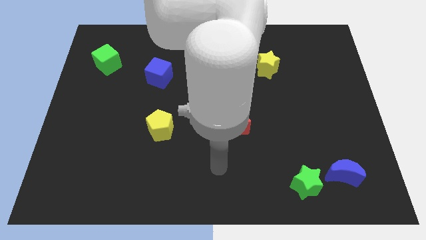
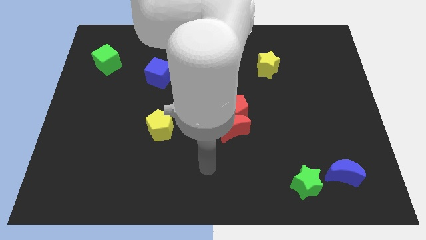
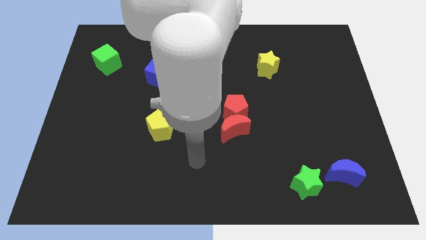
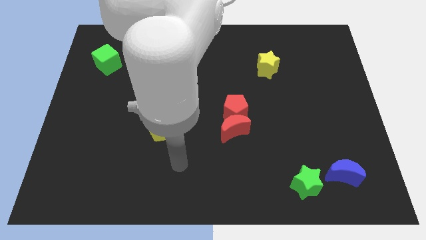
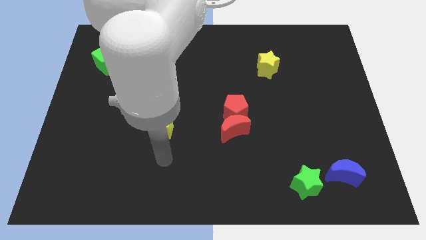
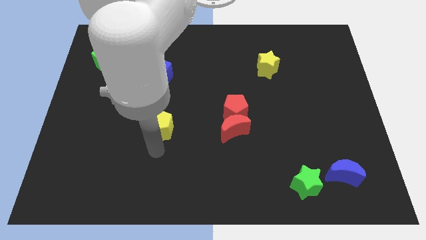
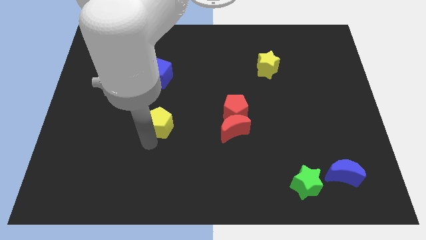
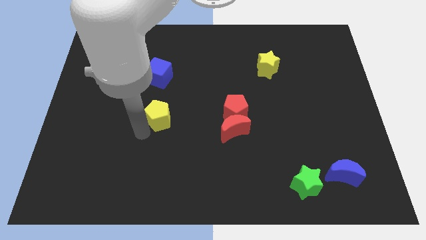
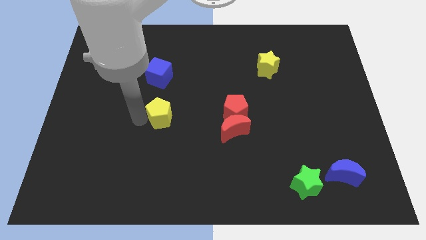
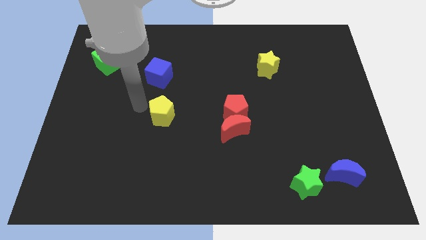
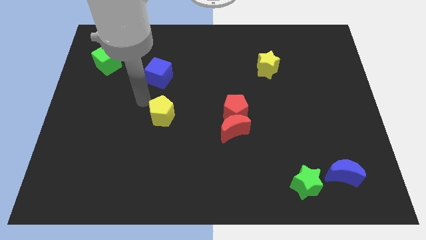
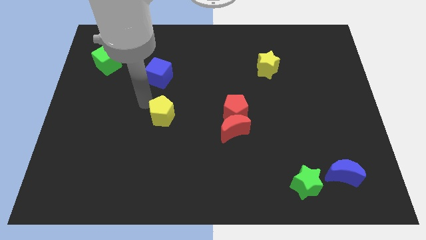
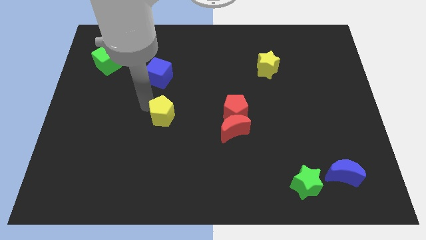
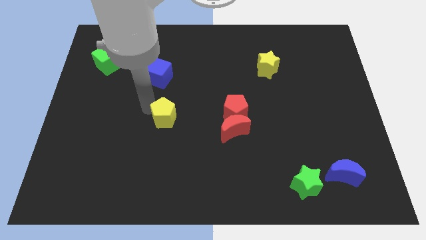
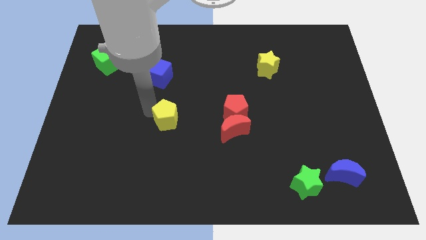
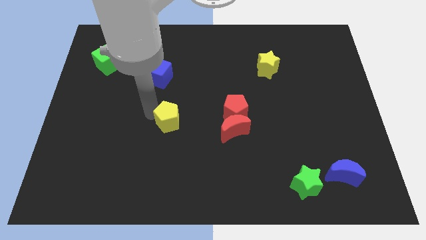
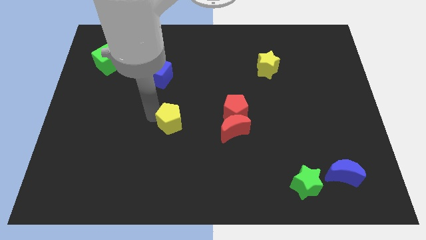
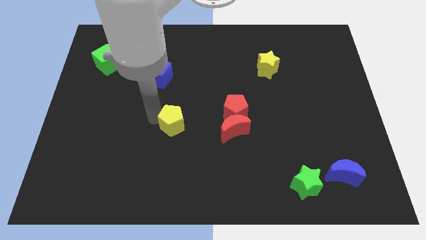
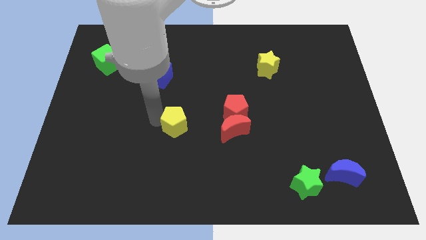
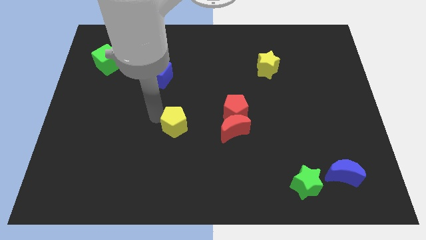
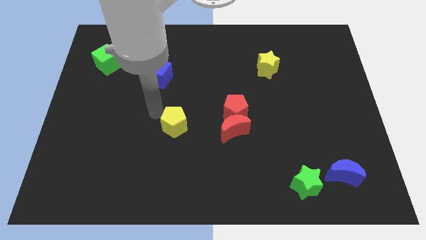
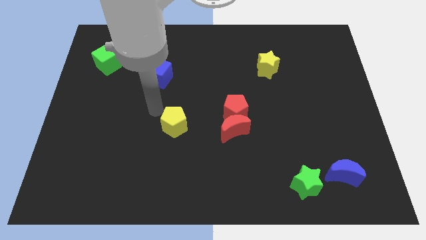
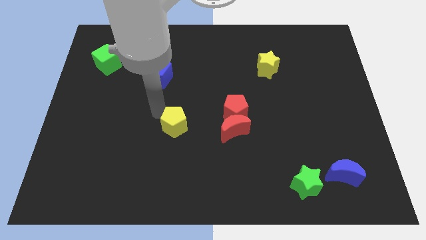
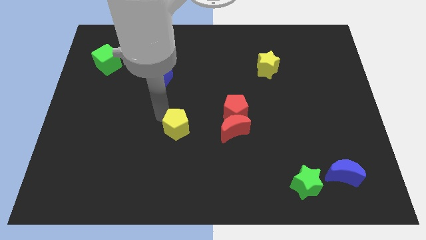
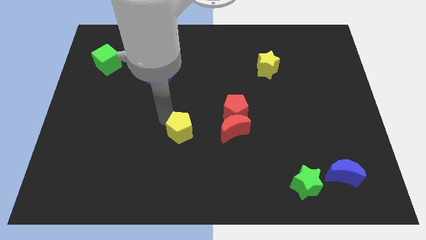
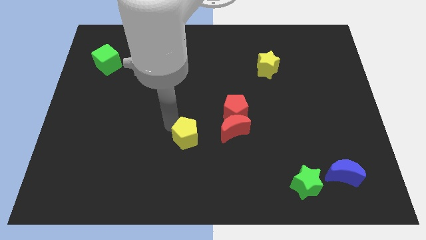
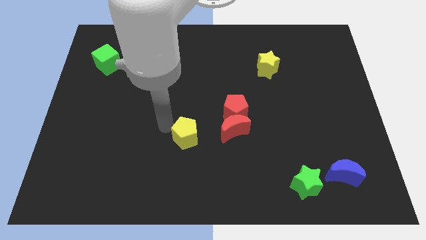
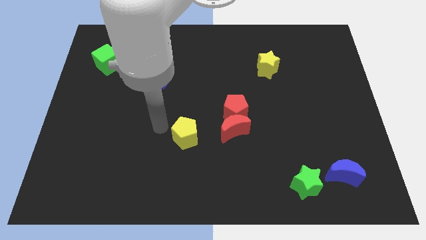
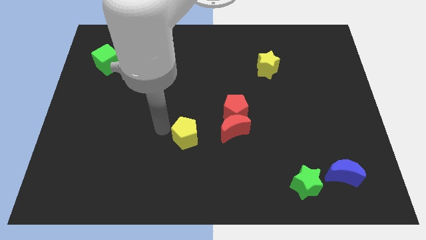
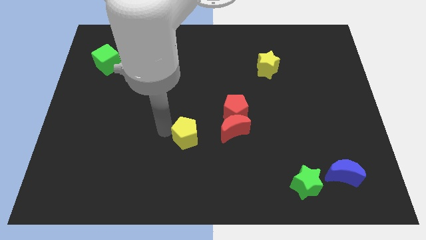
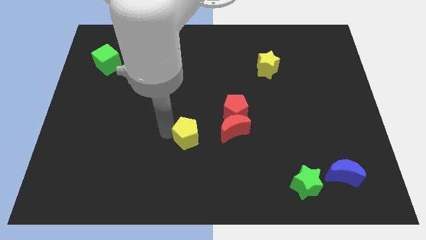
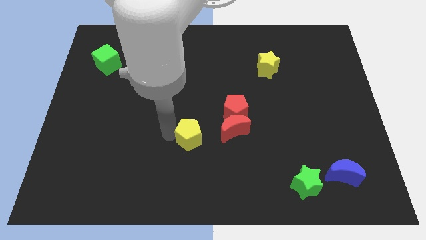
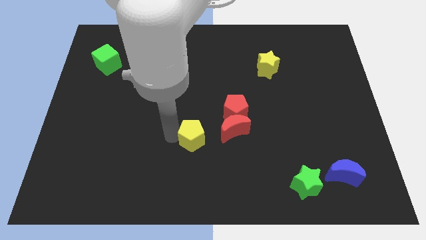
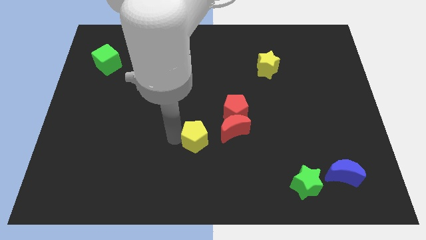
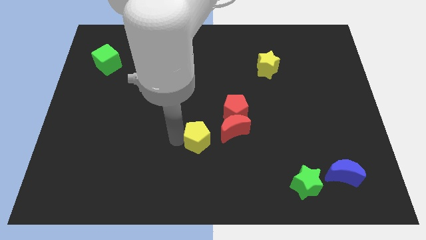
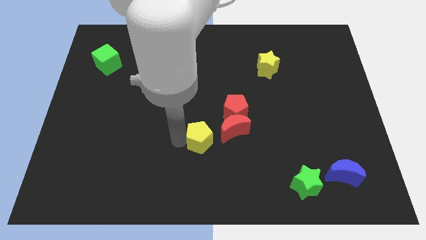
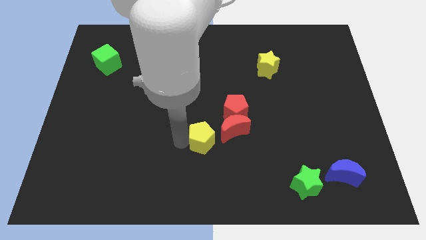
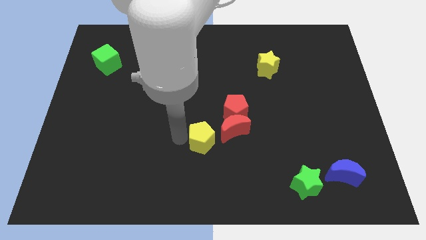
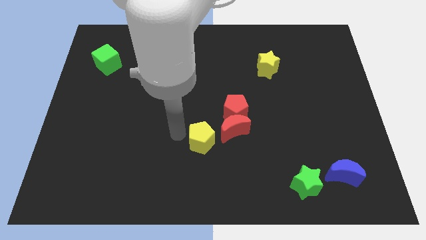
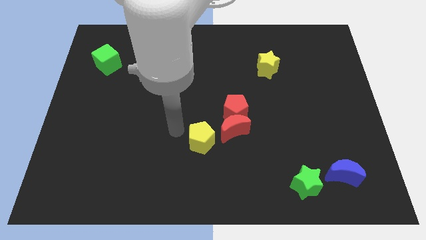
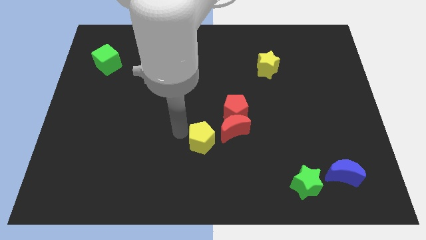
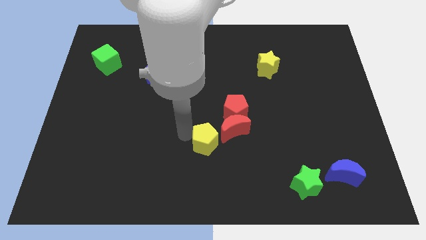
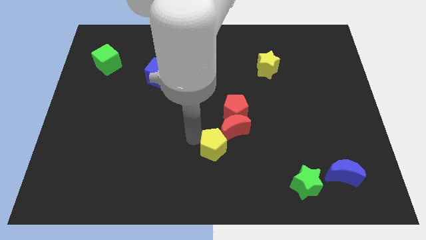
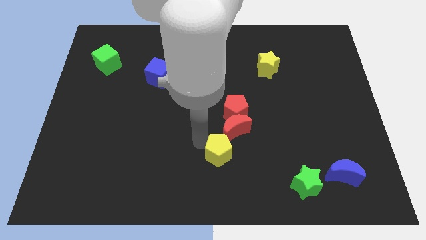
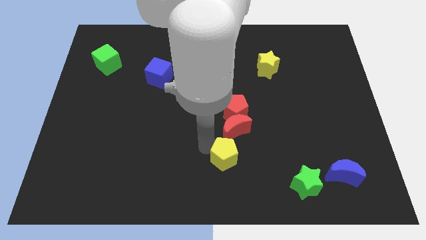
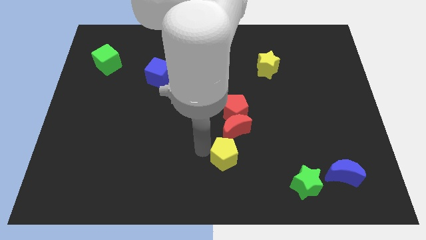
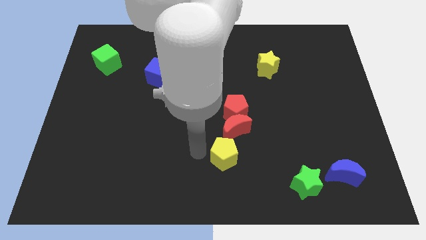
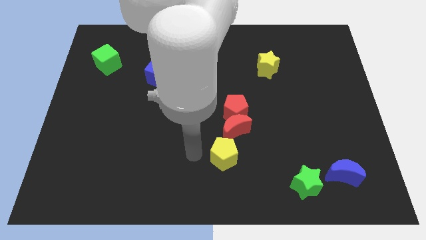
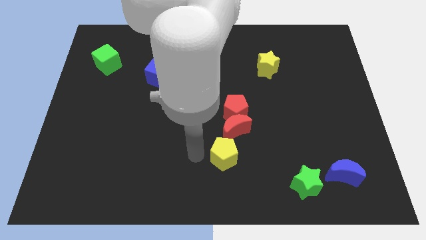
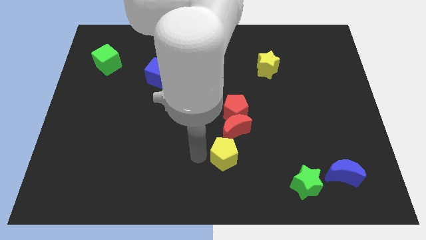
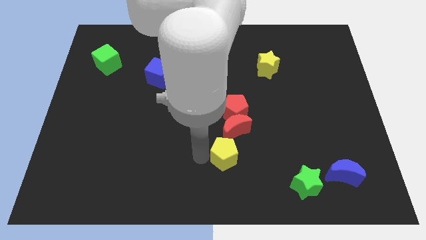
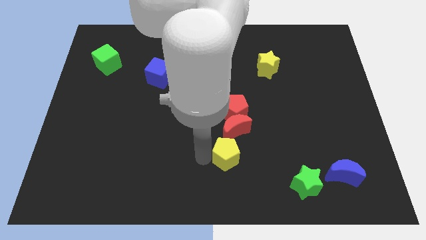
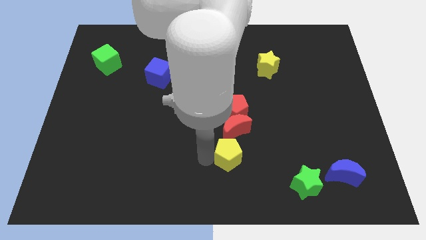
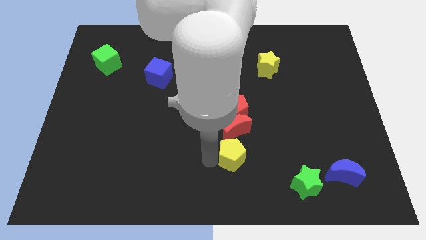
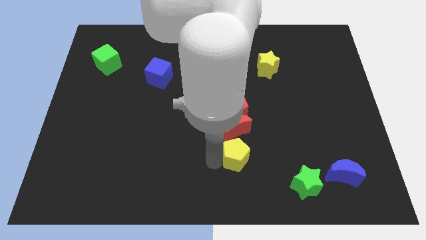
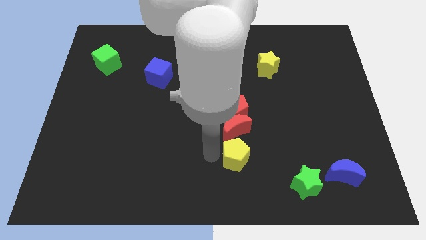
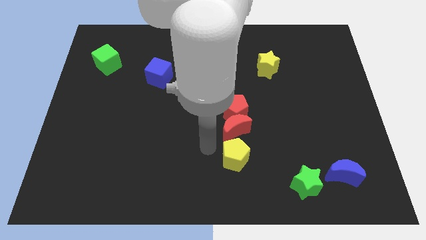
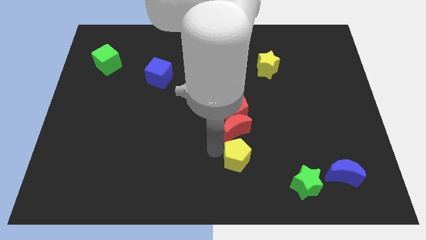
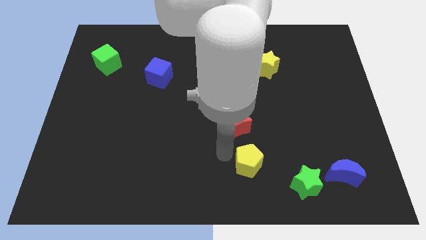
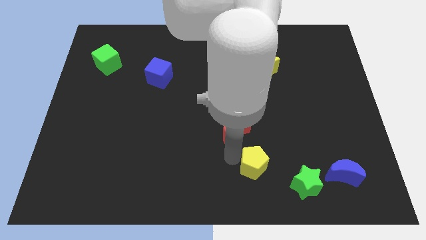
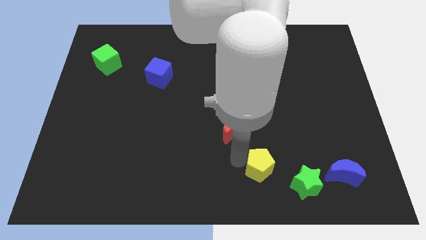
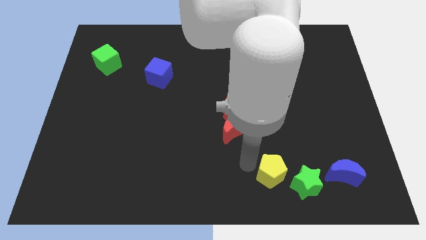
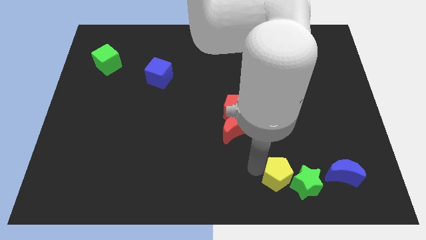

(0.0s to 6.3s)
push the yellow pentagon close to the green star

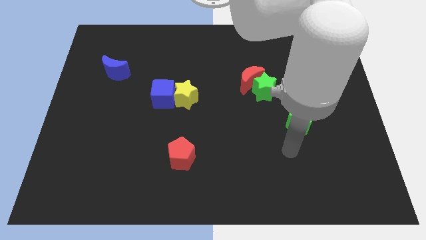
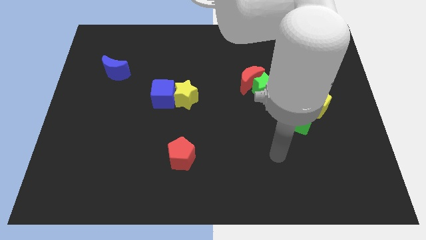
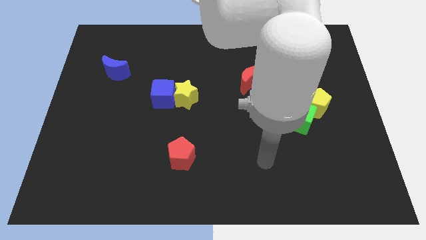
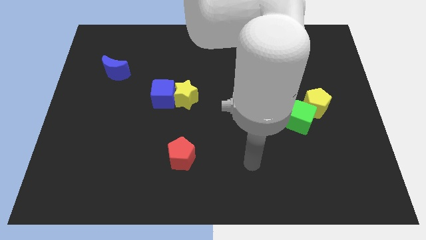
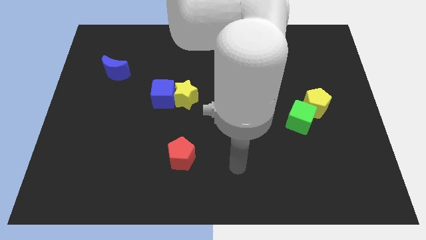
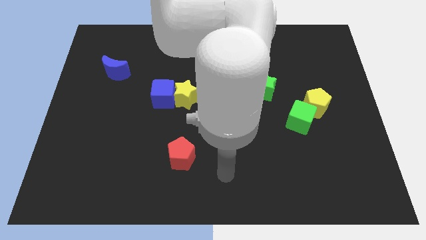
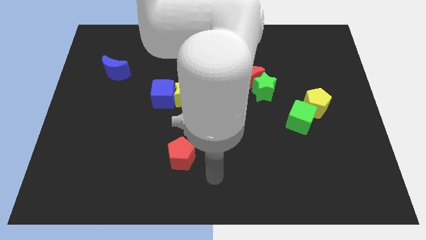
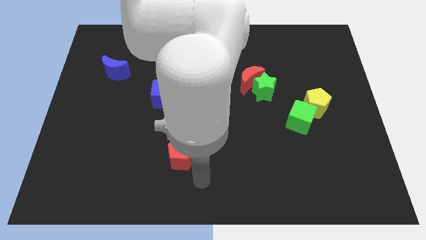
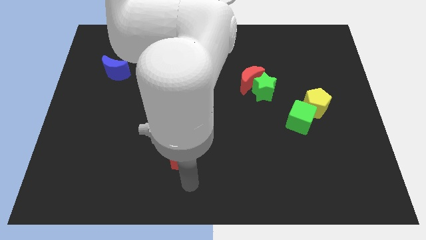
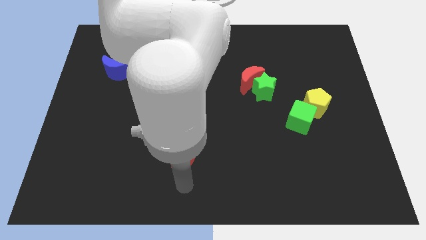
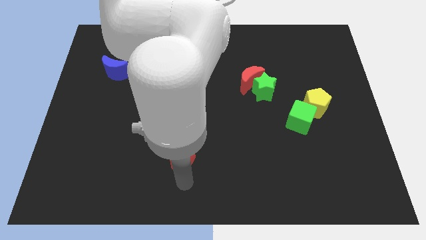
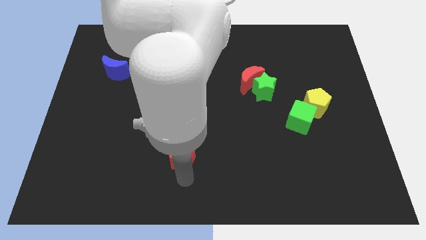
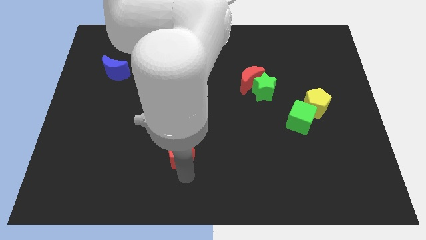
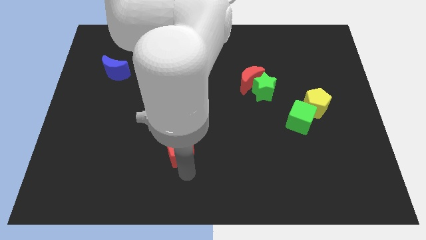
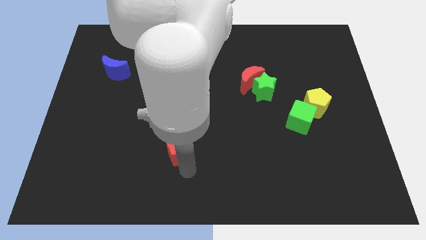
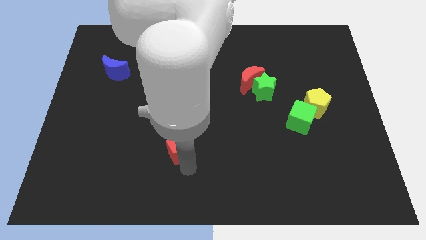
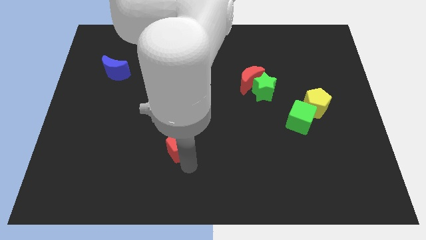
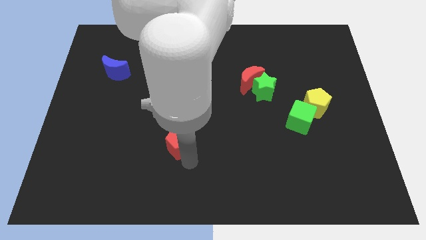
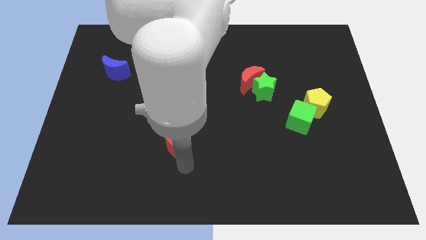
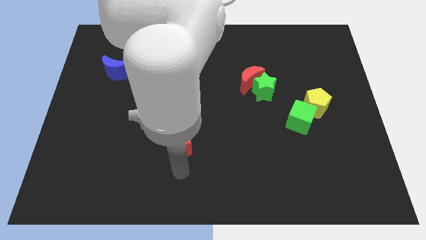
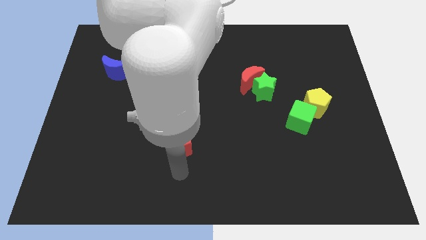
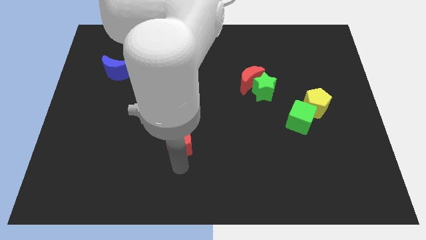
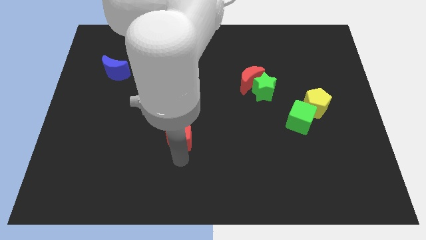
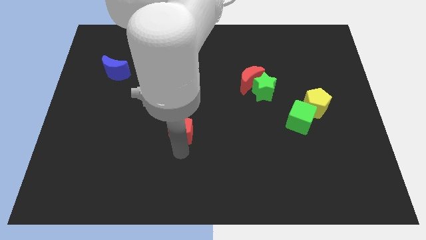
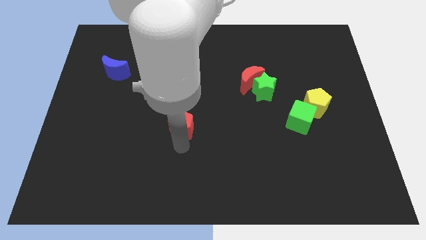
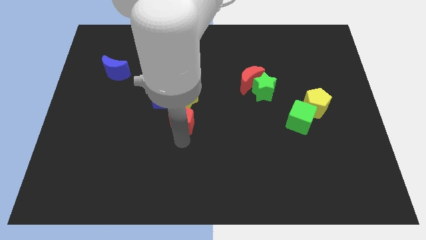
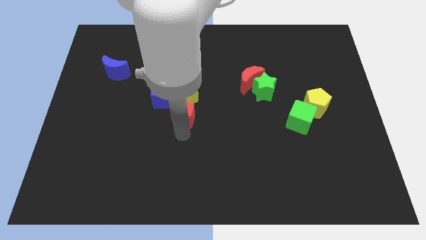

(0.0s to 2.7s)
move the red pentagon next to the yellow star
